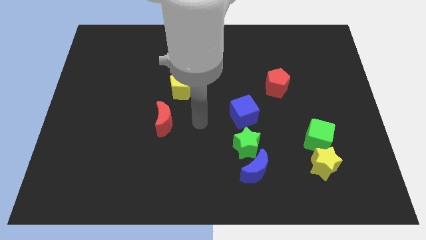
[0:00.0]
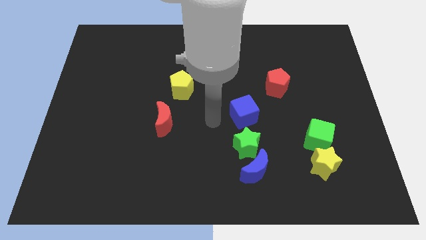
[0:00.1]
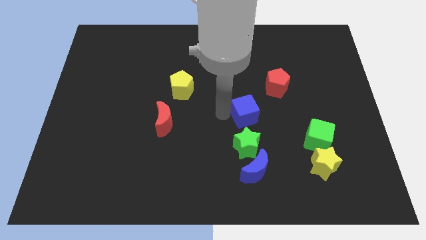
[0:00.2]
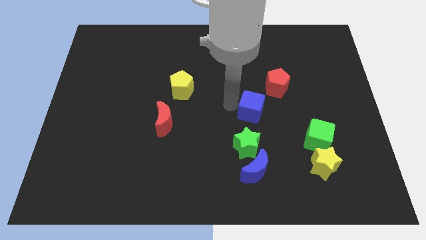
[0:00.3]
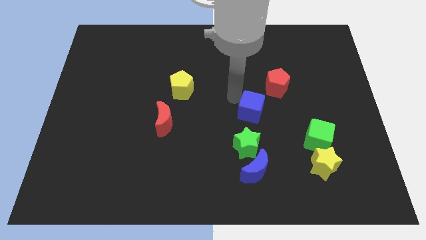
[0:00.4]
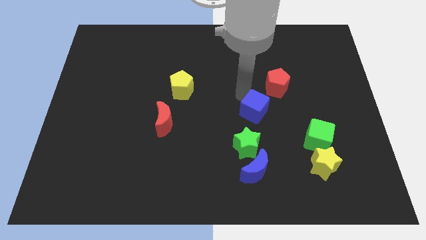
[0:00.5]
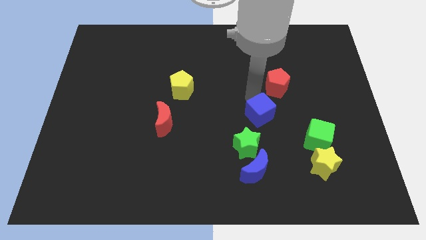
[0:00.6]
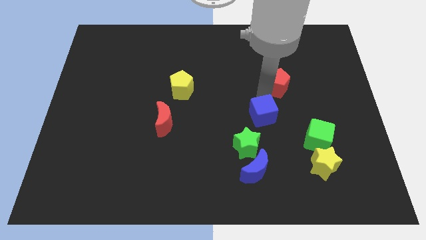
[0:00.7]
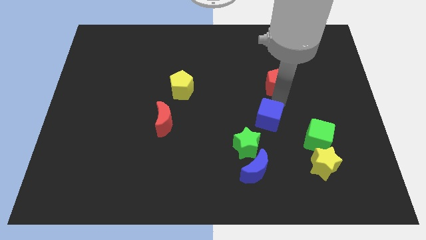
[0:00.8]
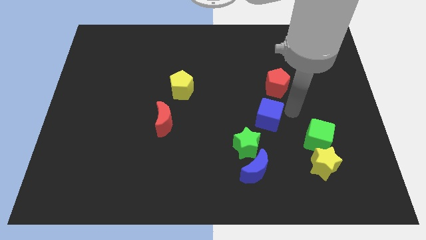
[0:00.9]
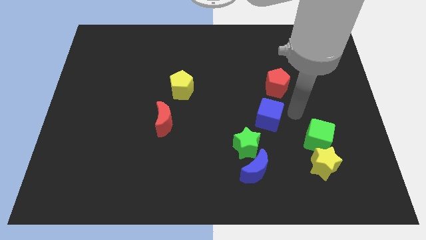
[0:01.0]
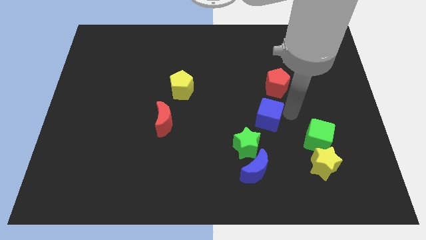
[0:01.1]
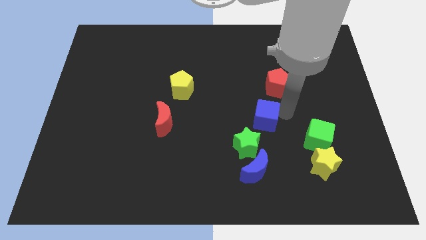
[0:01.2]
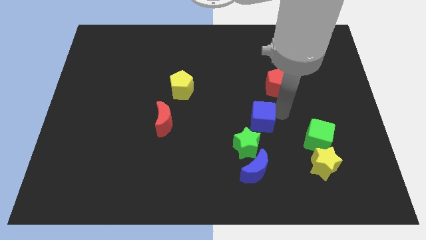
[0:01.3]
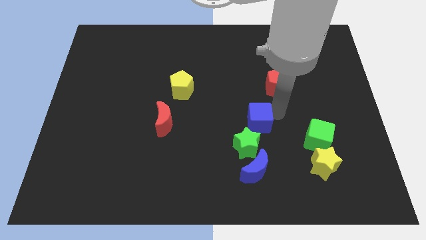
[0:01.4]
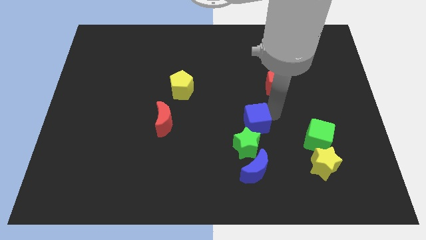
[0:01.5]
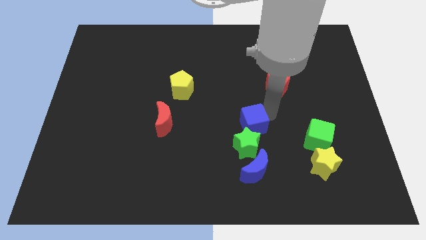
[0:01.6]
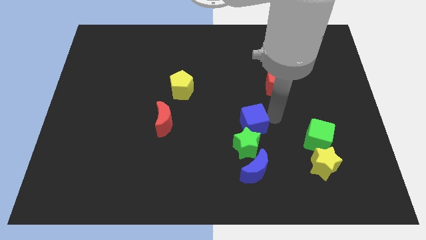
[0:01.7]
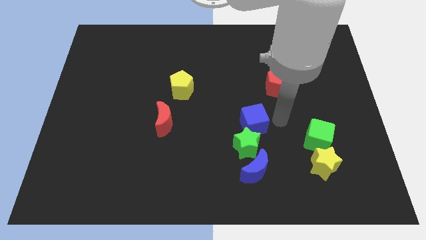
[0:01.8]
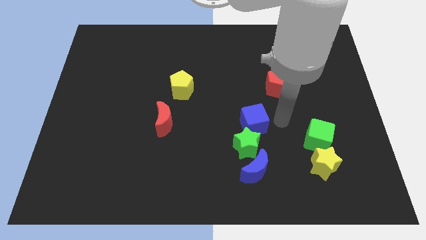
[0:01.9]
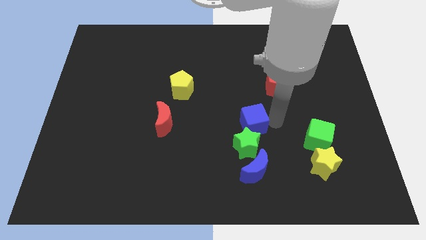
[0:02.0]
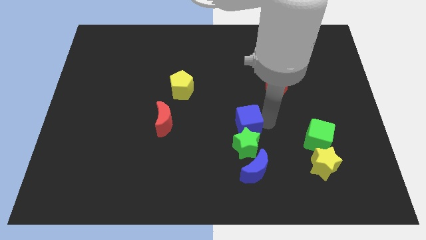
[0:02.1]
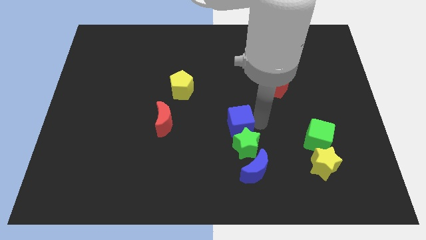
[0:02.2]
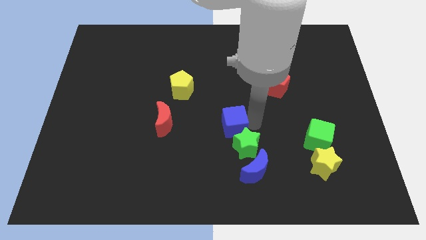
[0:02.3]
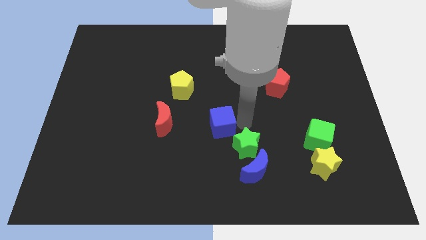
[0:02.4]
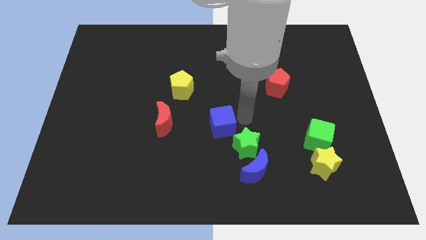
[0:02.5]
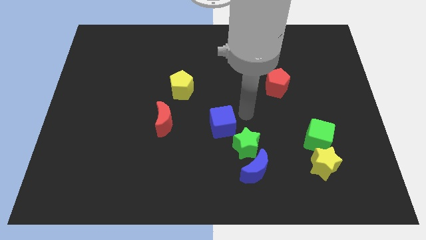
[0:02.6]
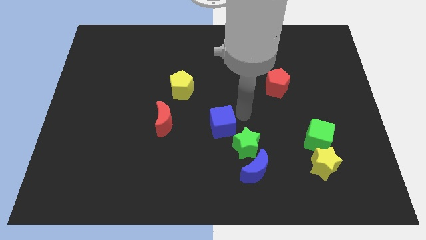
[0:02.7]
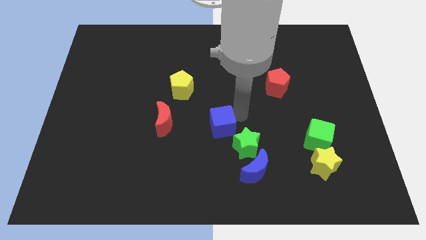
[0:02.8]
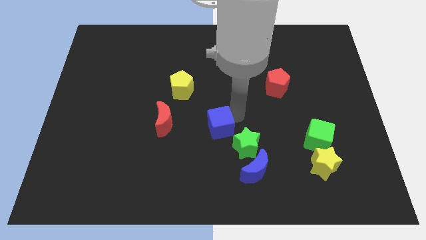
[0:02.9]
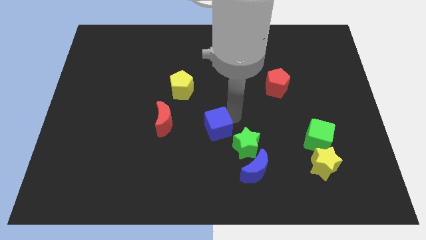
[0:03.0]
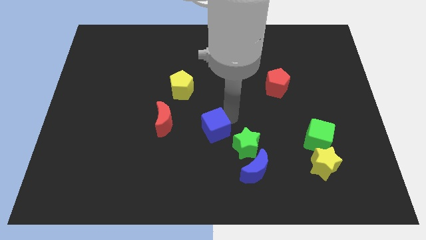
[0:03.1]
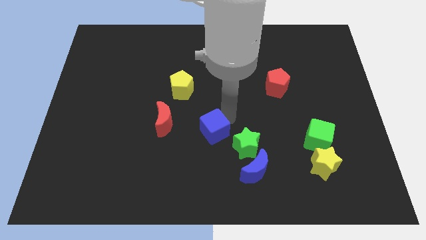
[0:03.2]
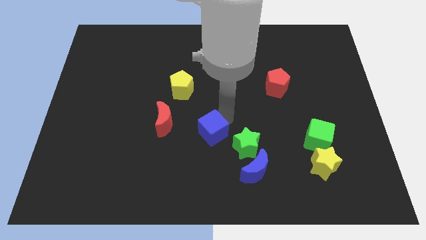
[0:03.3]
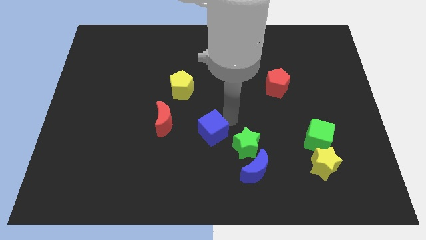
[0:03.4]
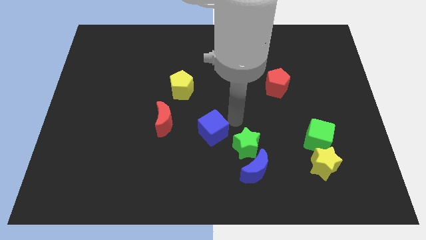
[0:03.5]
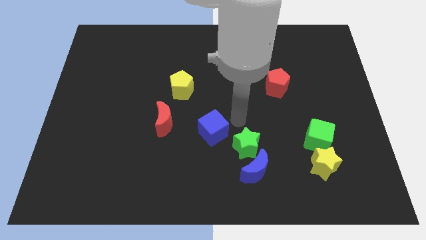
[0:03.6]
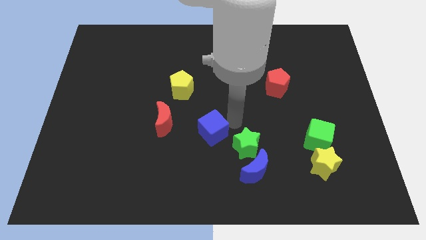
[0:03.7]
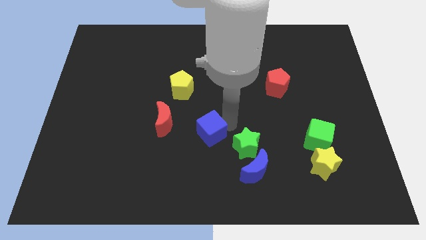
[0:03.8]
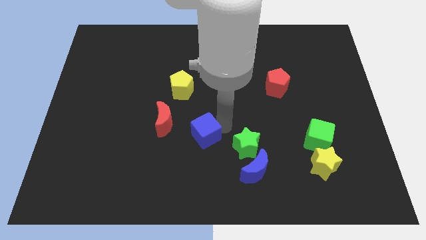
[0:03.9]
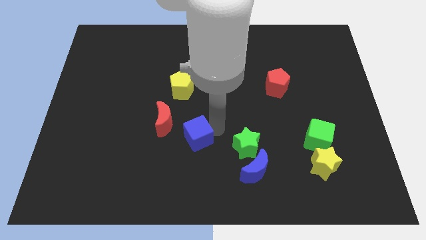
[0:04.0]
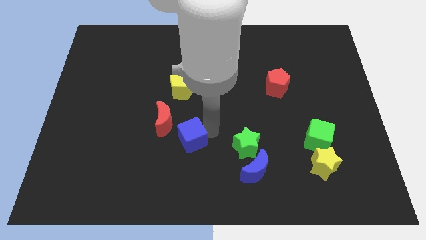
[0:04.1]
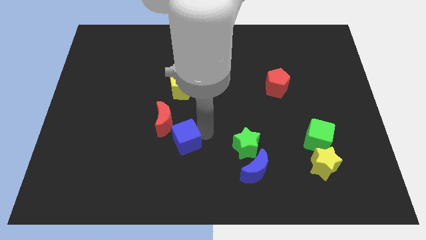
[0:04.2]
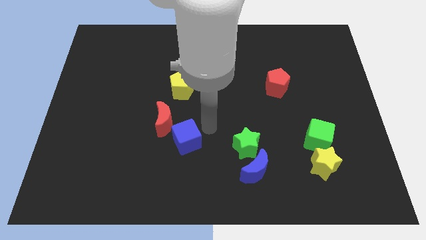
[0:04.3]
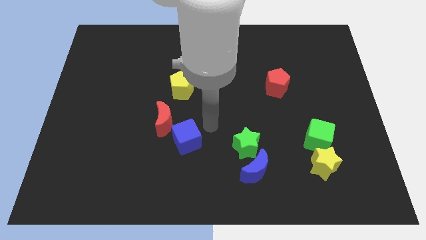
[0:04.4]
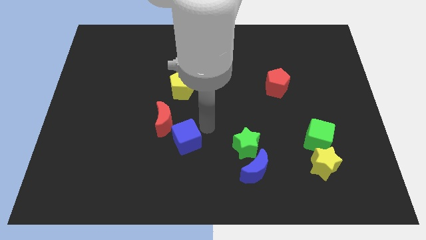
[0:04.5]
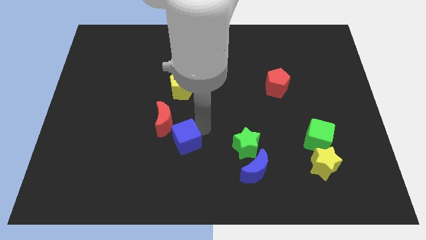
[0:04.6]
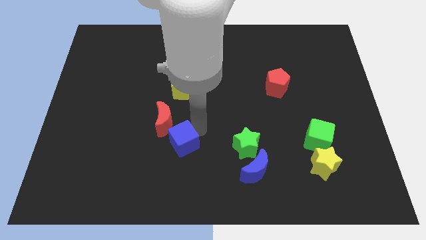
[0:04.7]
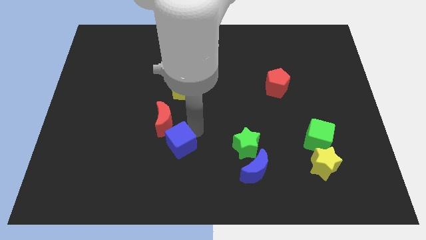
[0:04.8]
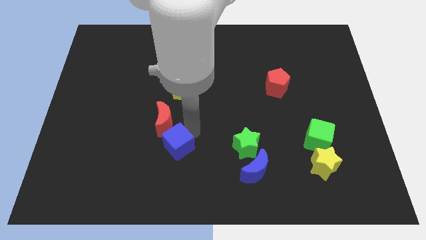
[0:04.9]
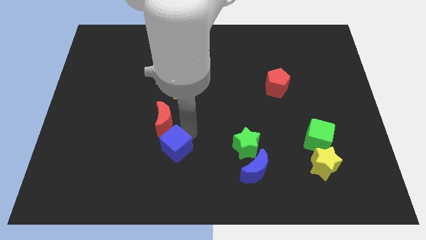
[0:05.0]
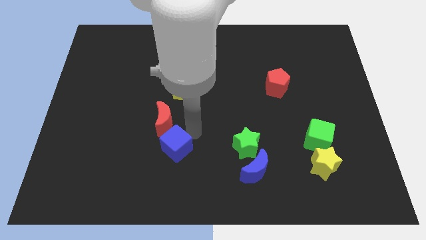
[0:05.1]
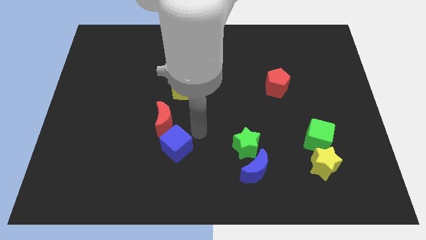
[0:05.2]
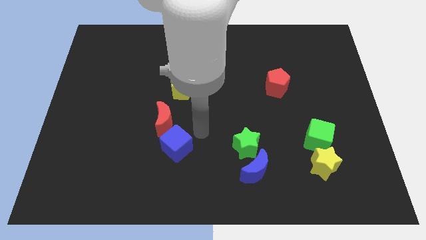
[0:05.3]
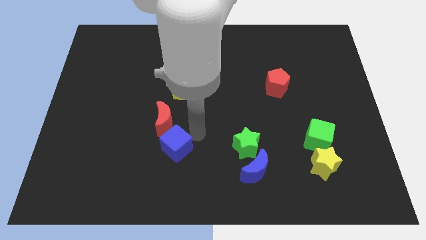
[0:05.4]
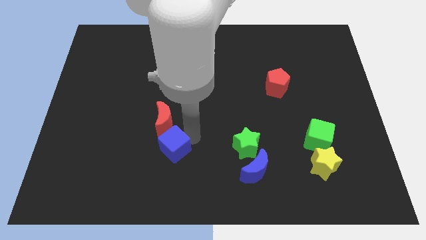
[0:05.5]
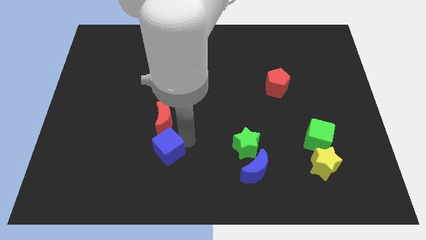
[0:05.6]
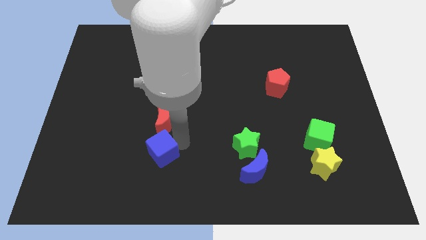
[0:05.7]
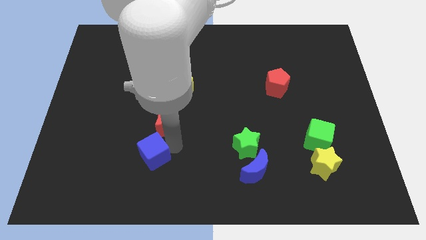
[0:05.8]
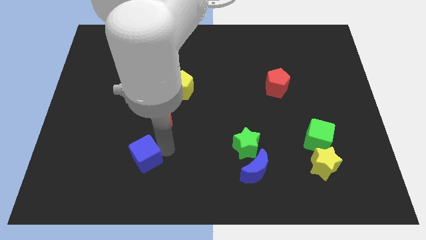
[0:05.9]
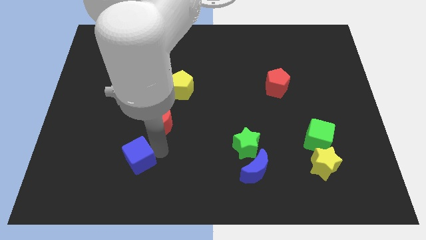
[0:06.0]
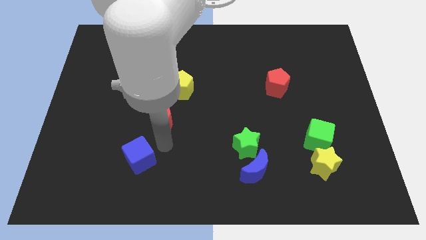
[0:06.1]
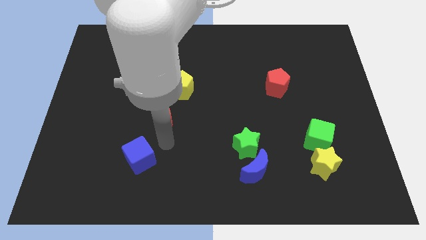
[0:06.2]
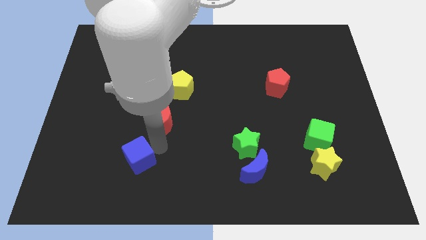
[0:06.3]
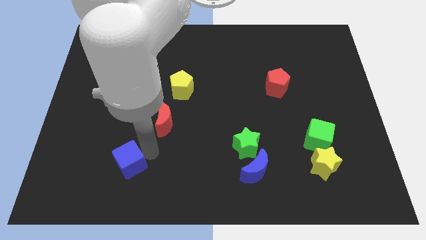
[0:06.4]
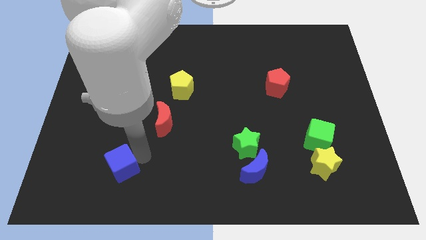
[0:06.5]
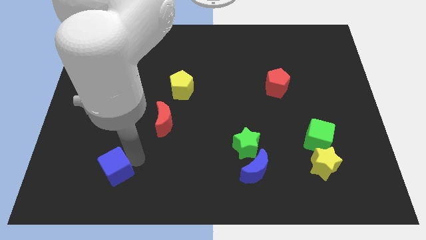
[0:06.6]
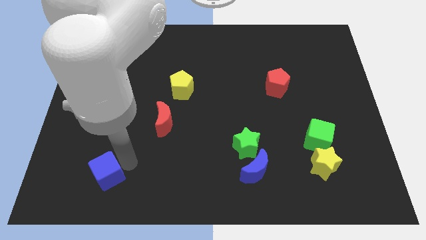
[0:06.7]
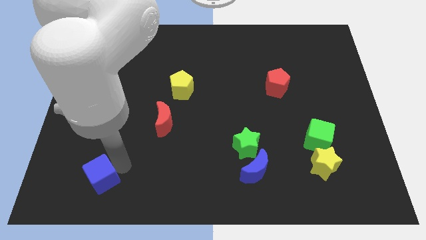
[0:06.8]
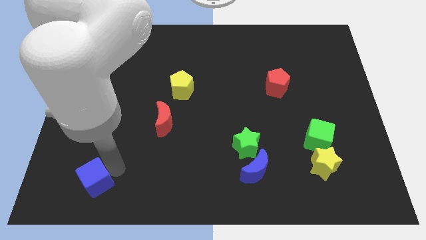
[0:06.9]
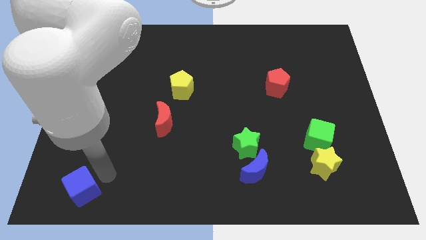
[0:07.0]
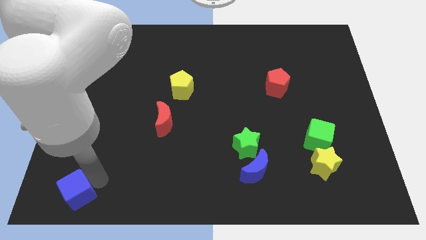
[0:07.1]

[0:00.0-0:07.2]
slide the blue cube to the bottom left

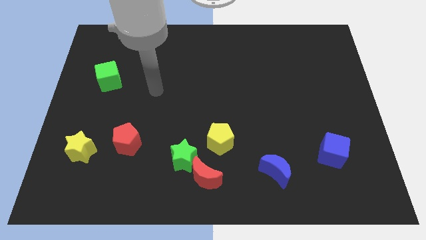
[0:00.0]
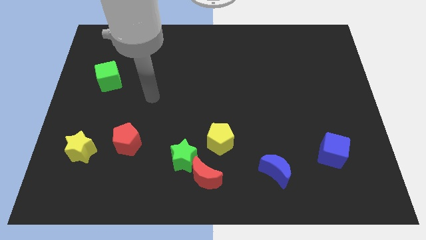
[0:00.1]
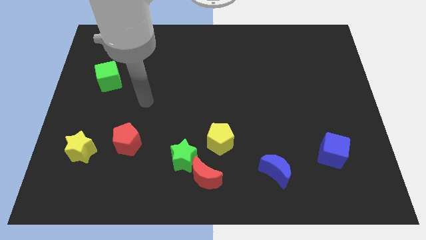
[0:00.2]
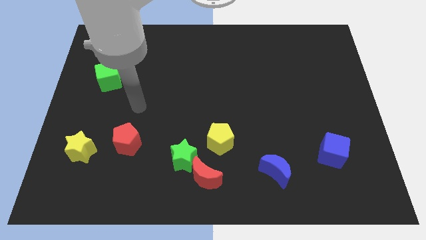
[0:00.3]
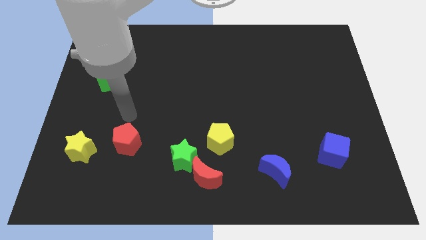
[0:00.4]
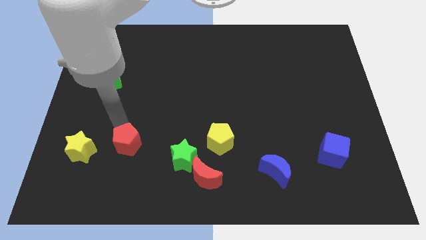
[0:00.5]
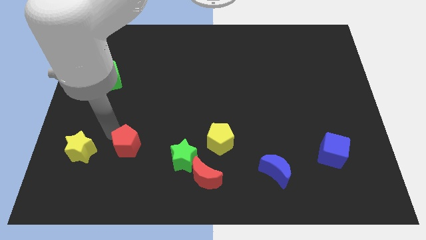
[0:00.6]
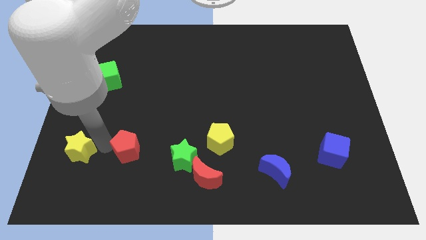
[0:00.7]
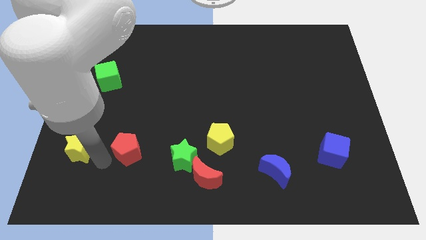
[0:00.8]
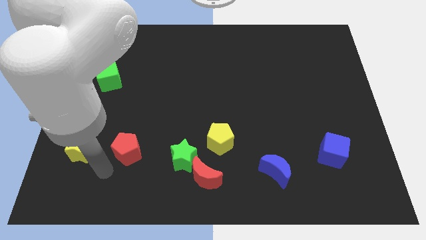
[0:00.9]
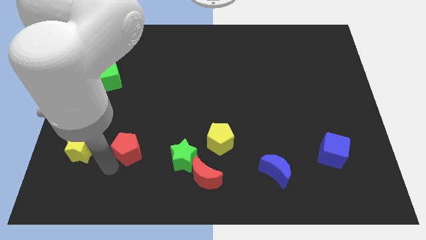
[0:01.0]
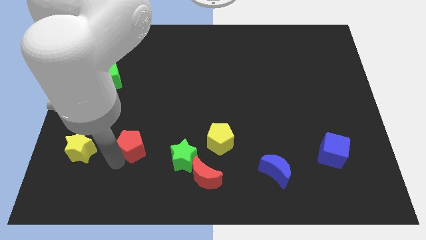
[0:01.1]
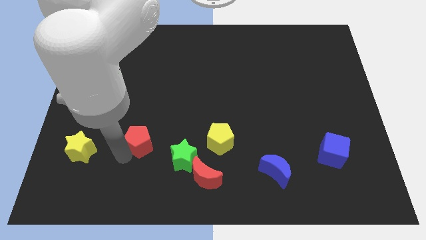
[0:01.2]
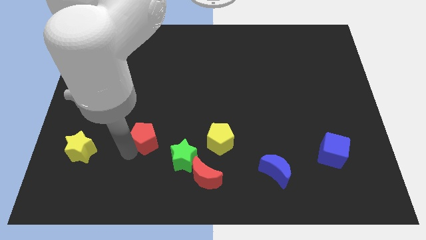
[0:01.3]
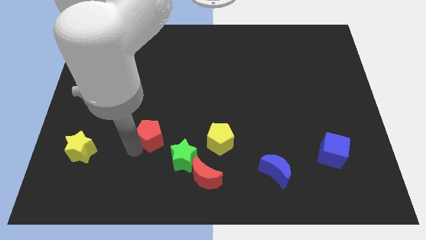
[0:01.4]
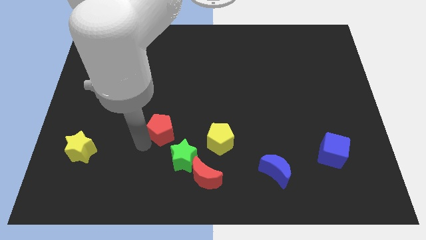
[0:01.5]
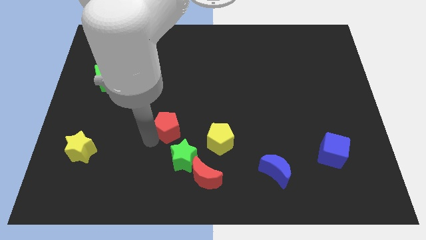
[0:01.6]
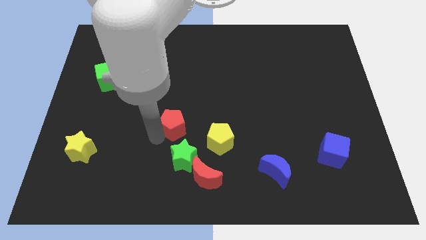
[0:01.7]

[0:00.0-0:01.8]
move the red pentagon to the middle
